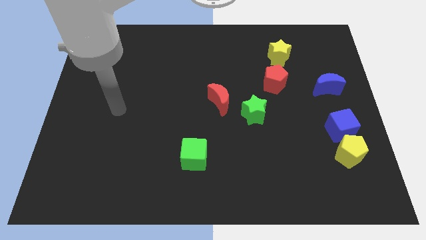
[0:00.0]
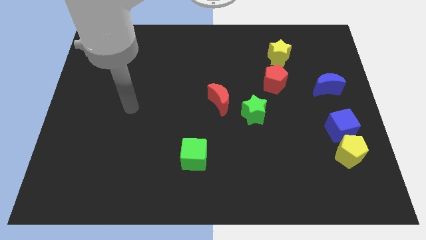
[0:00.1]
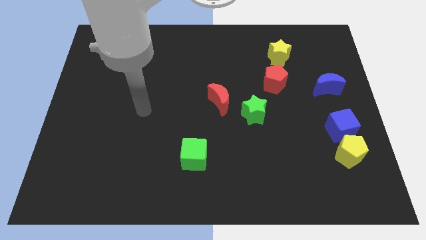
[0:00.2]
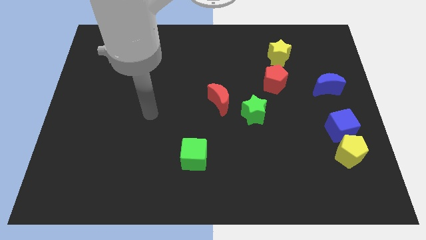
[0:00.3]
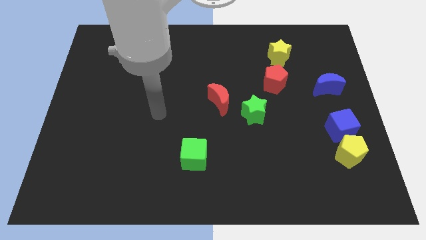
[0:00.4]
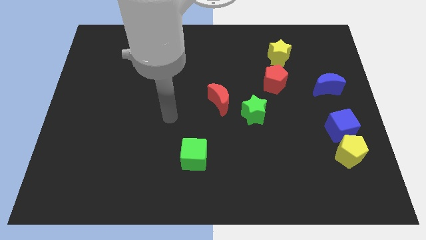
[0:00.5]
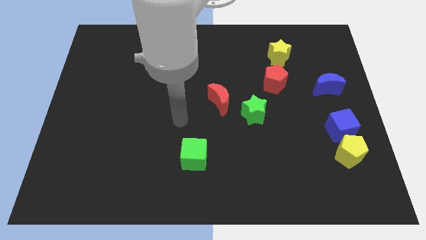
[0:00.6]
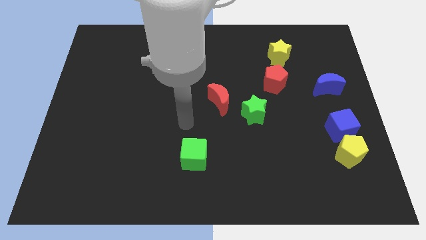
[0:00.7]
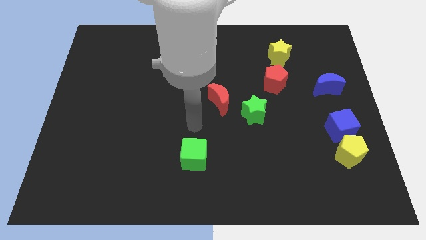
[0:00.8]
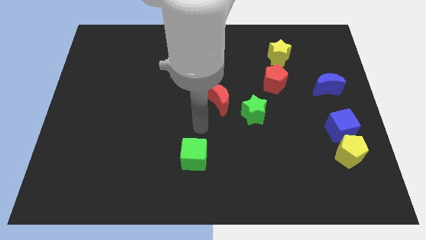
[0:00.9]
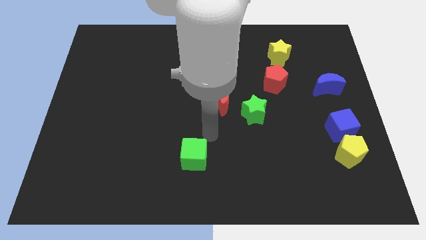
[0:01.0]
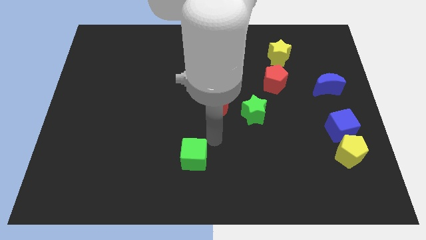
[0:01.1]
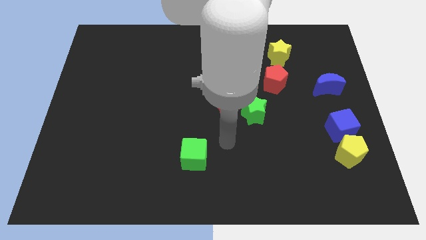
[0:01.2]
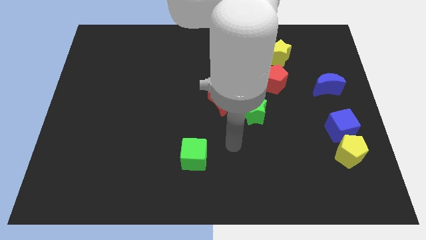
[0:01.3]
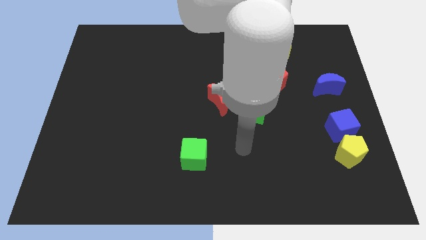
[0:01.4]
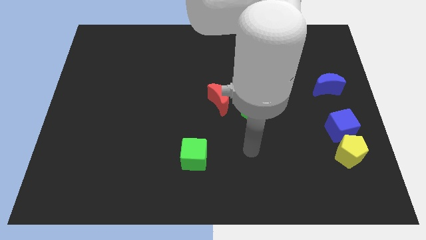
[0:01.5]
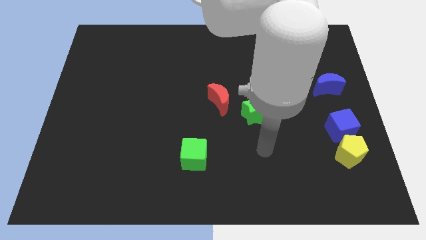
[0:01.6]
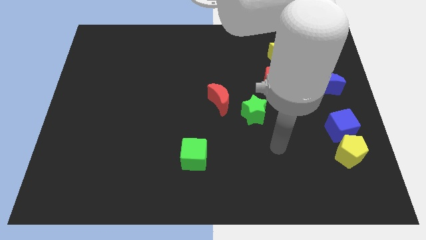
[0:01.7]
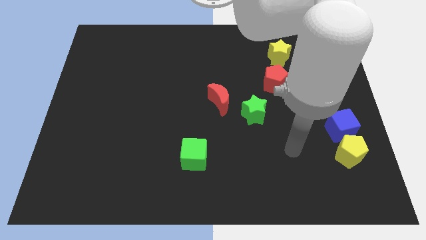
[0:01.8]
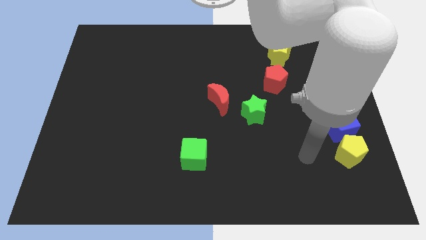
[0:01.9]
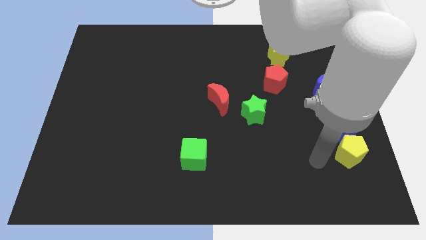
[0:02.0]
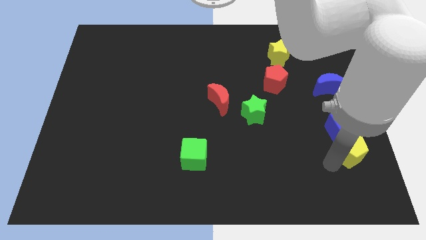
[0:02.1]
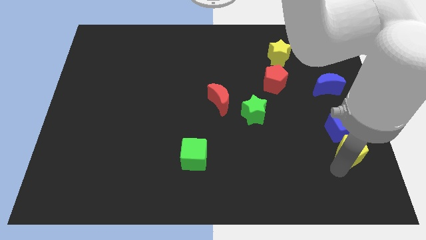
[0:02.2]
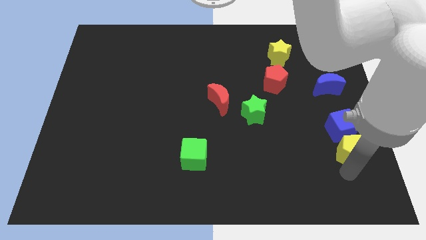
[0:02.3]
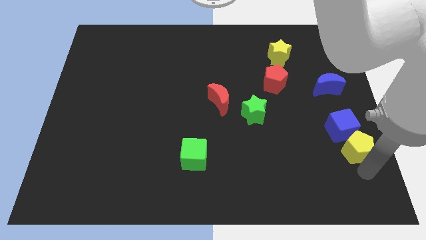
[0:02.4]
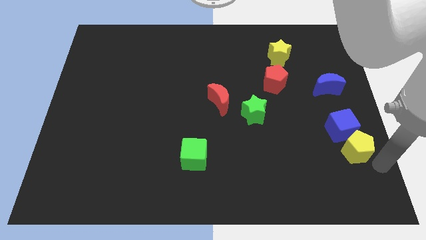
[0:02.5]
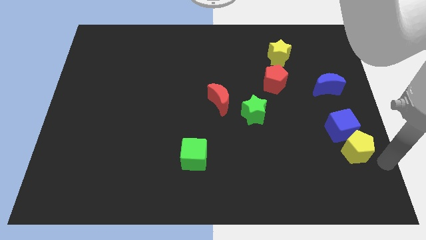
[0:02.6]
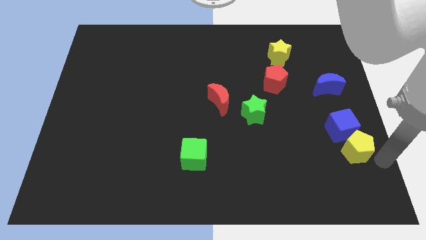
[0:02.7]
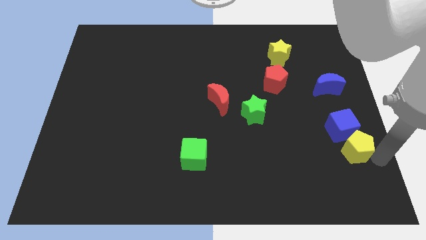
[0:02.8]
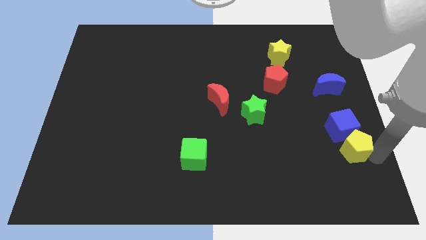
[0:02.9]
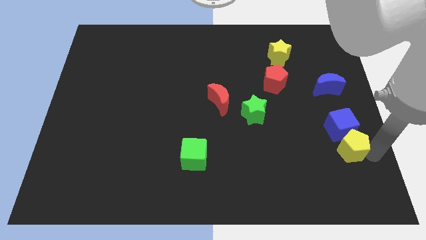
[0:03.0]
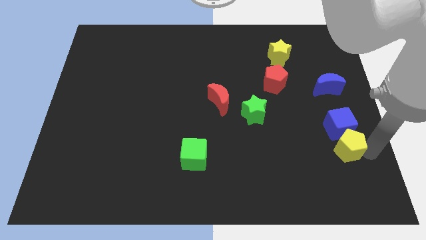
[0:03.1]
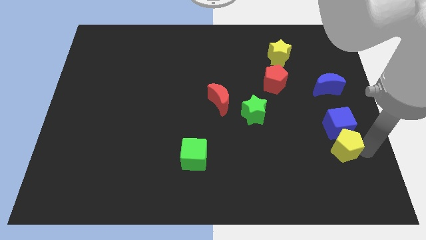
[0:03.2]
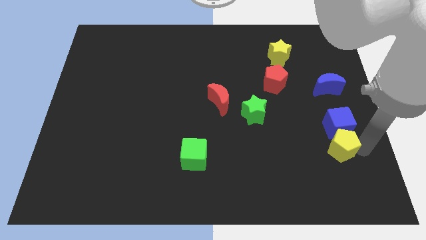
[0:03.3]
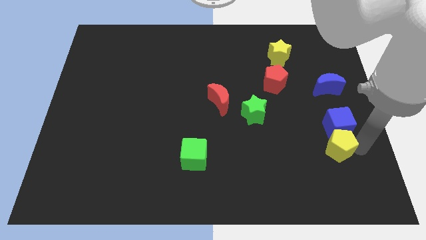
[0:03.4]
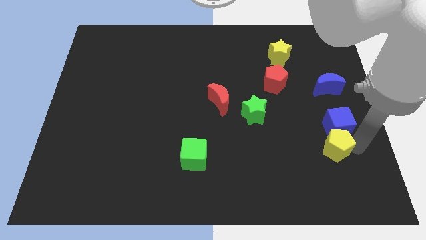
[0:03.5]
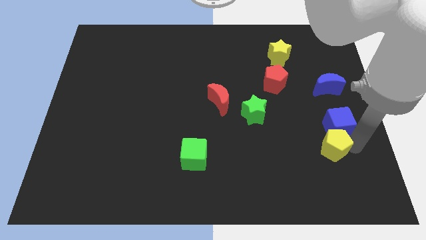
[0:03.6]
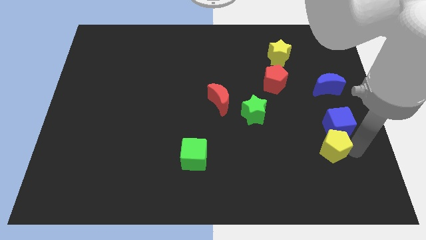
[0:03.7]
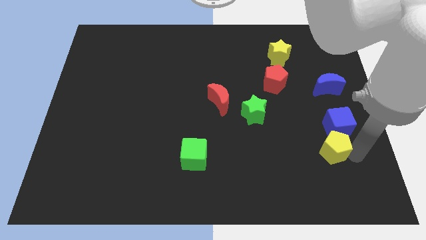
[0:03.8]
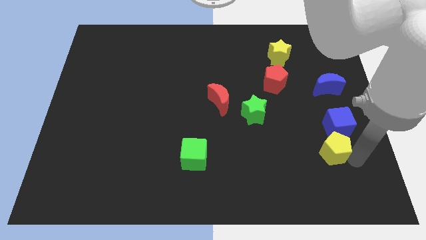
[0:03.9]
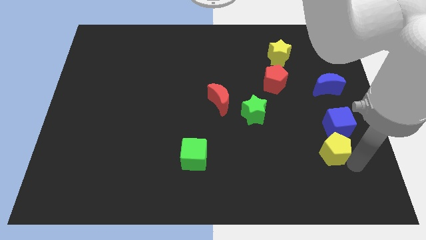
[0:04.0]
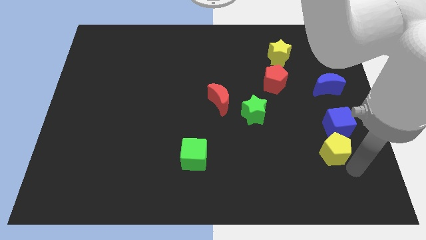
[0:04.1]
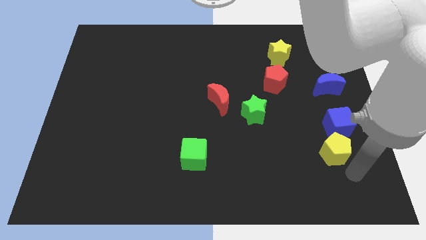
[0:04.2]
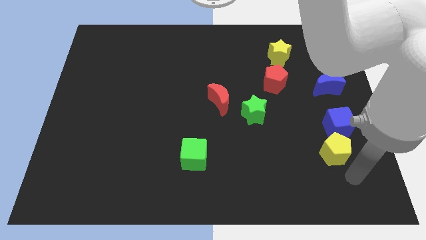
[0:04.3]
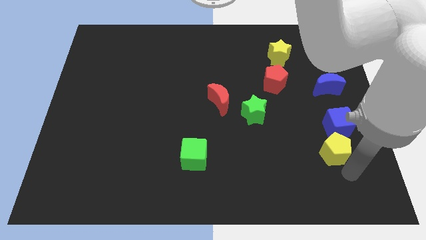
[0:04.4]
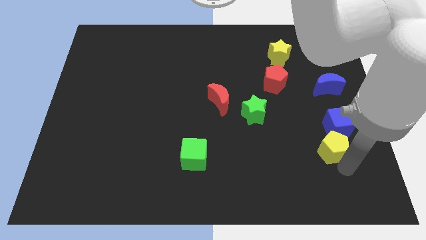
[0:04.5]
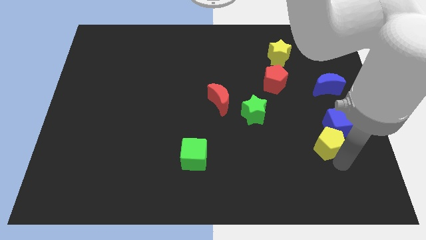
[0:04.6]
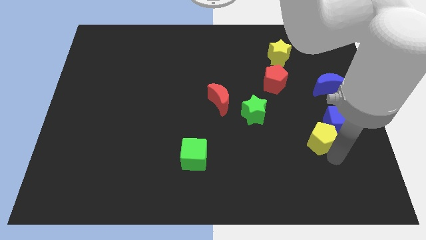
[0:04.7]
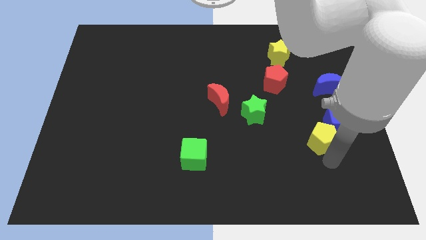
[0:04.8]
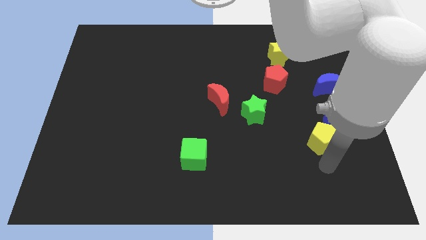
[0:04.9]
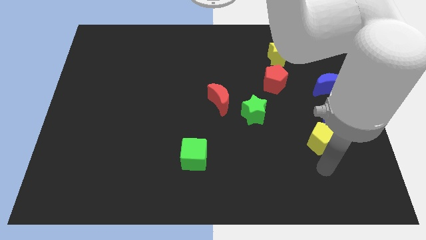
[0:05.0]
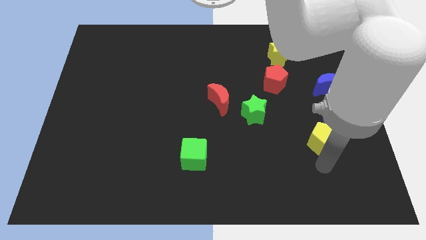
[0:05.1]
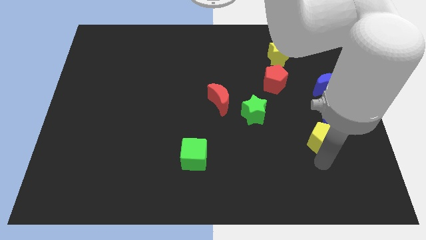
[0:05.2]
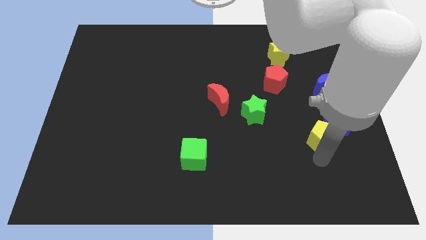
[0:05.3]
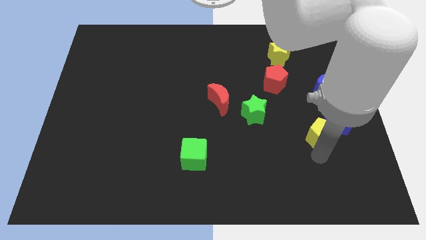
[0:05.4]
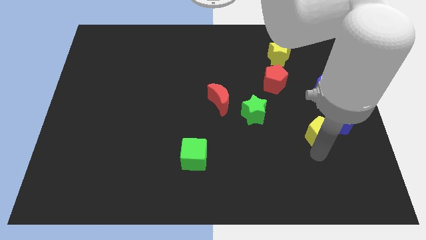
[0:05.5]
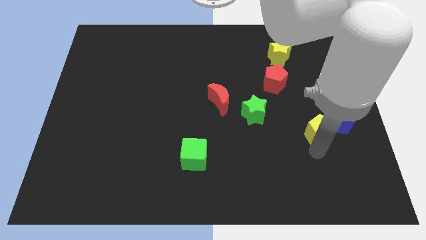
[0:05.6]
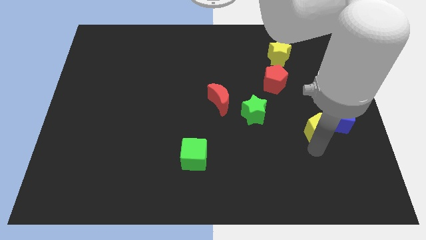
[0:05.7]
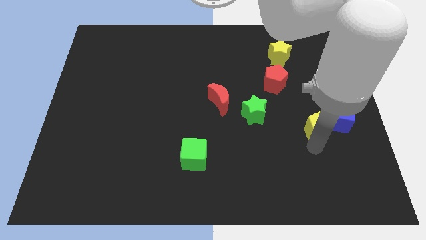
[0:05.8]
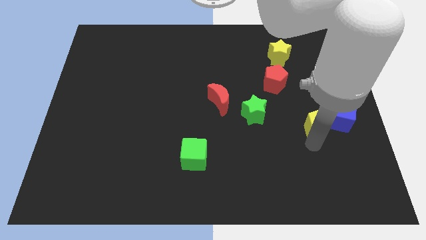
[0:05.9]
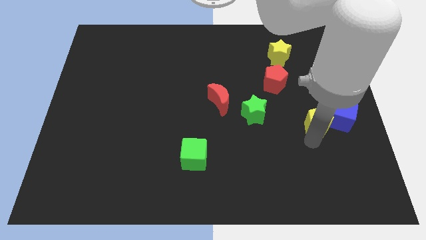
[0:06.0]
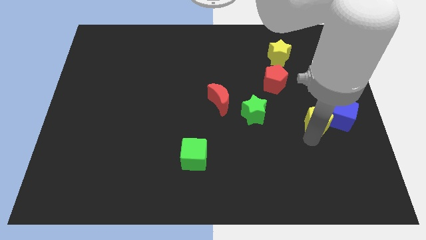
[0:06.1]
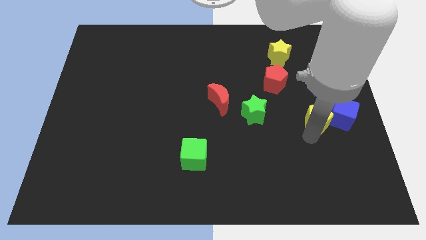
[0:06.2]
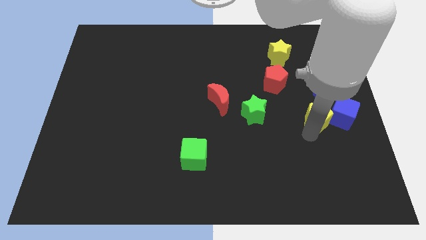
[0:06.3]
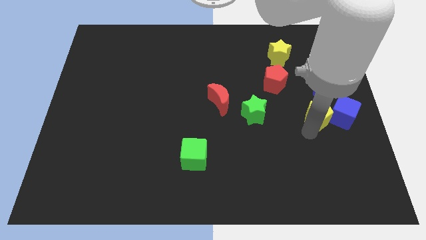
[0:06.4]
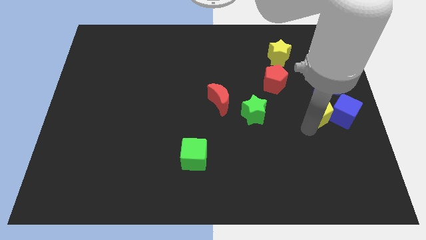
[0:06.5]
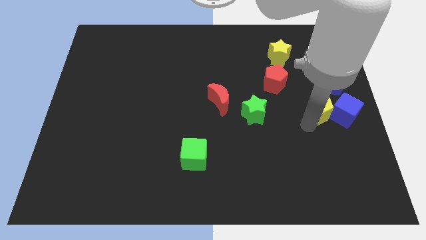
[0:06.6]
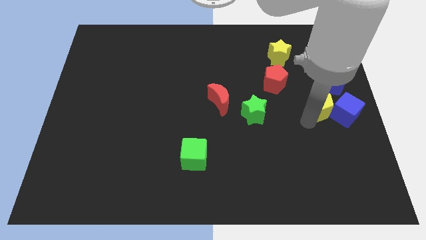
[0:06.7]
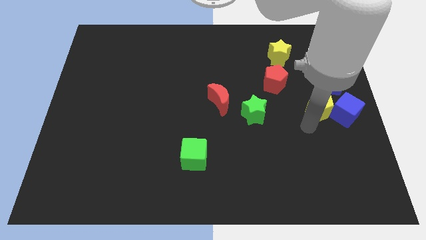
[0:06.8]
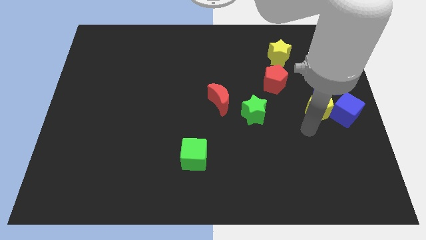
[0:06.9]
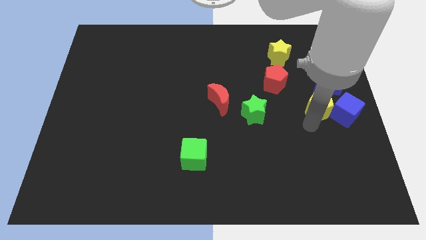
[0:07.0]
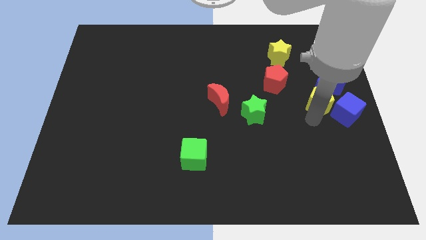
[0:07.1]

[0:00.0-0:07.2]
slide the yellow pentagon close to the blue moon
